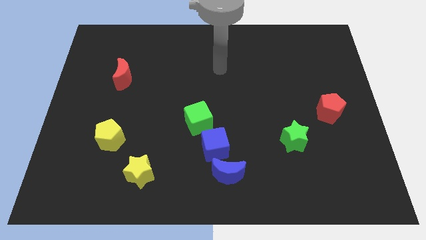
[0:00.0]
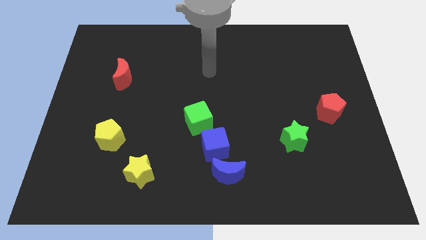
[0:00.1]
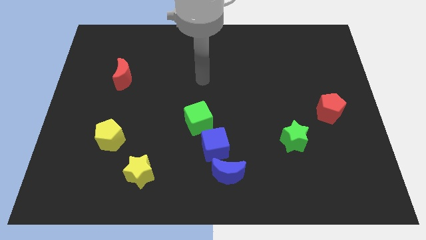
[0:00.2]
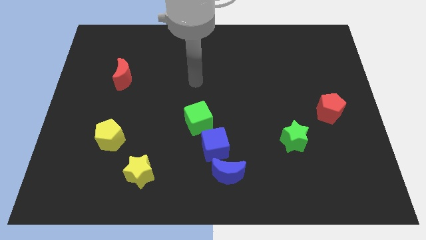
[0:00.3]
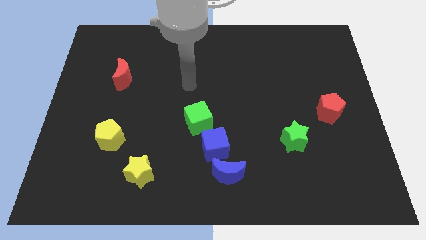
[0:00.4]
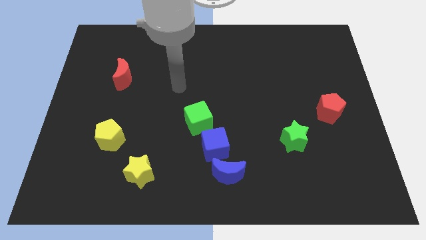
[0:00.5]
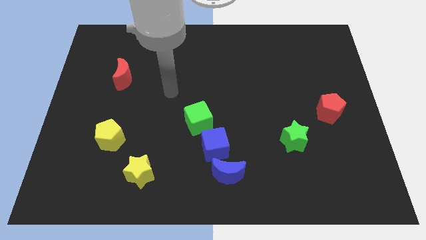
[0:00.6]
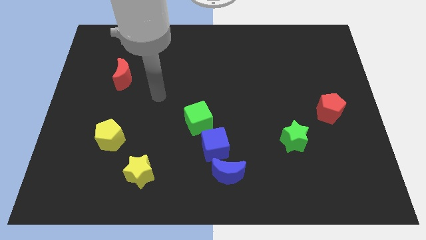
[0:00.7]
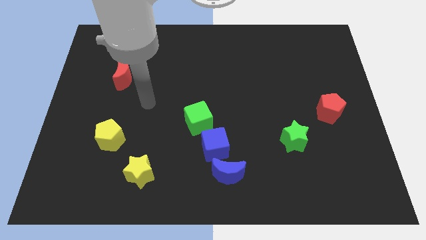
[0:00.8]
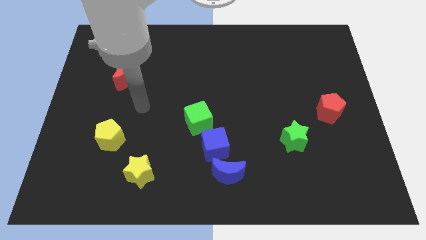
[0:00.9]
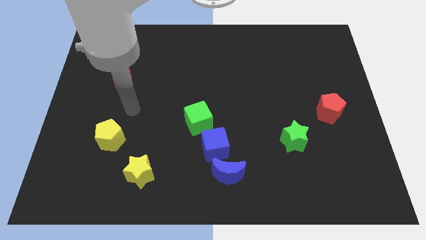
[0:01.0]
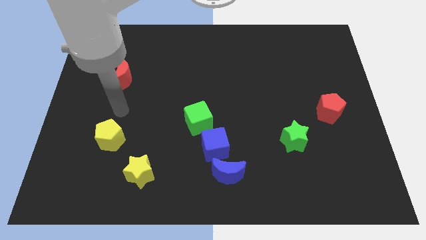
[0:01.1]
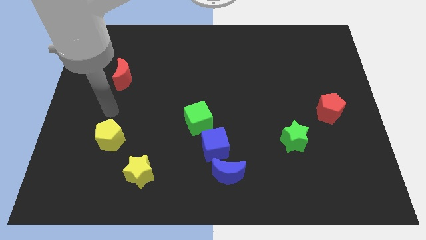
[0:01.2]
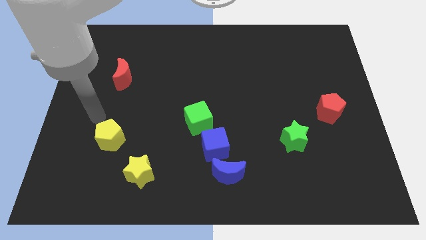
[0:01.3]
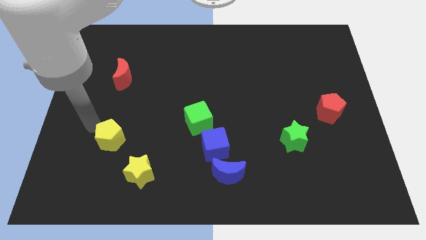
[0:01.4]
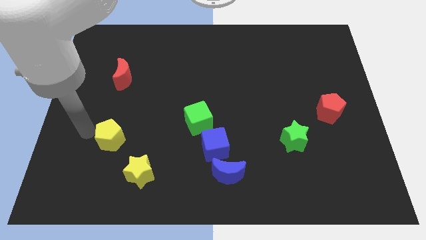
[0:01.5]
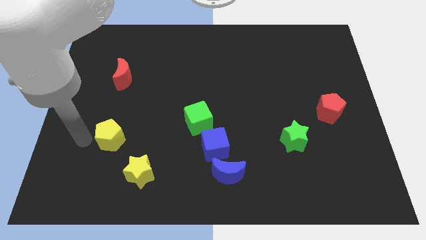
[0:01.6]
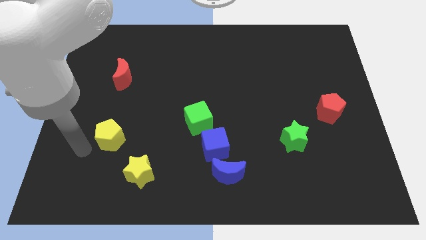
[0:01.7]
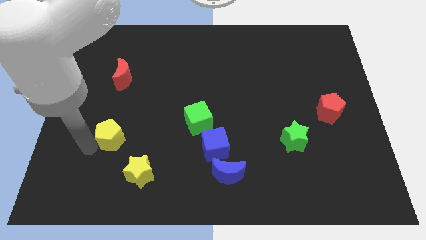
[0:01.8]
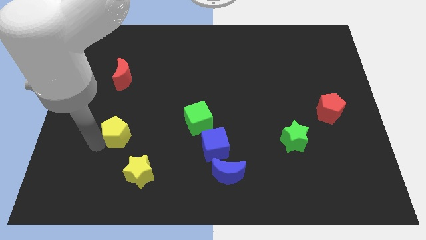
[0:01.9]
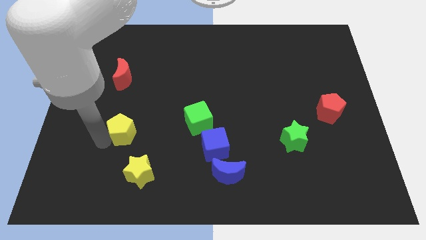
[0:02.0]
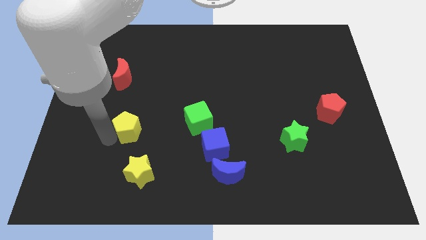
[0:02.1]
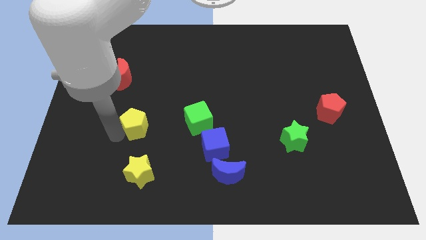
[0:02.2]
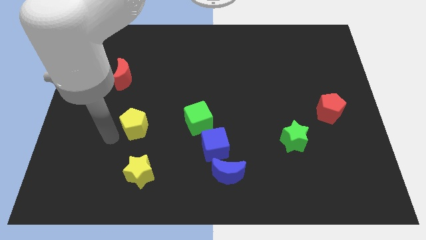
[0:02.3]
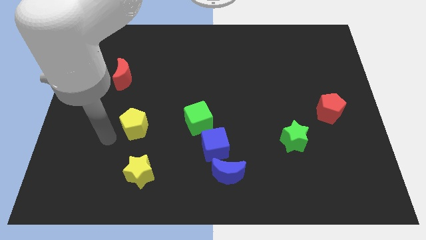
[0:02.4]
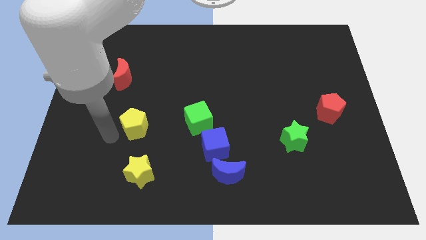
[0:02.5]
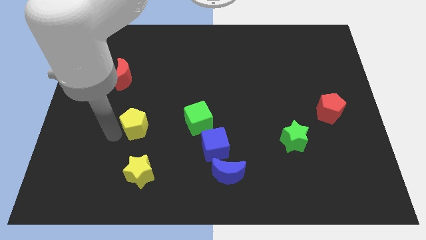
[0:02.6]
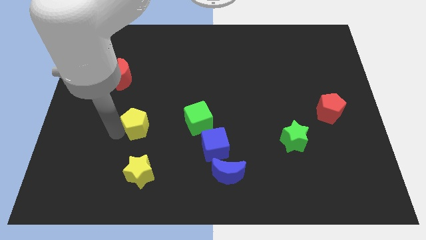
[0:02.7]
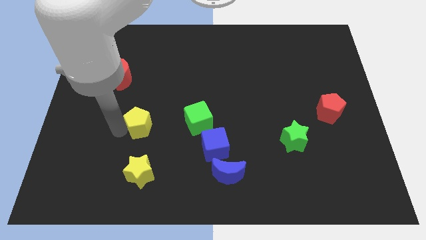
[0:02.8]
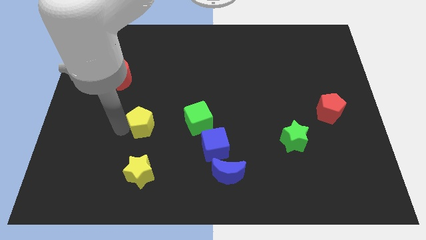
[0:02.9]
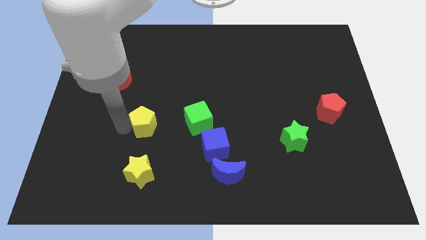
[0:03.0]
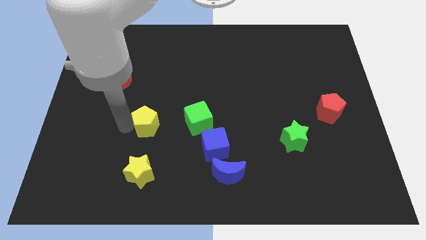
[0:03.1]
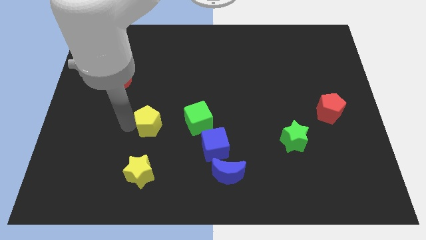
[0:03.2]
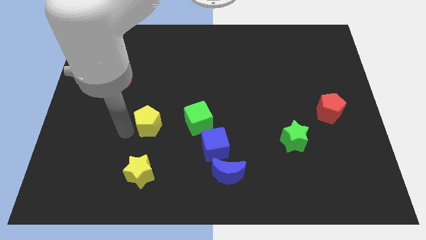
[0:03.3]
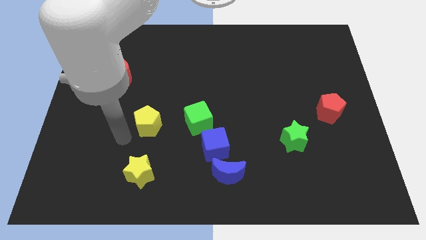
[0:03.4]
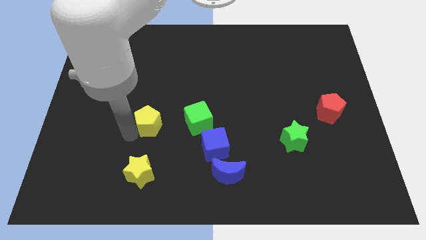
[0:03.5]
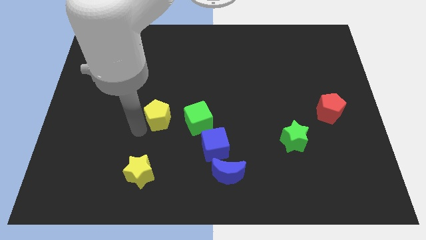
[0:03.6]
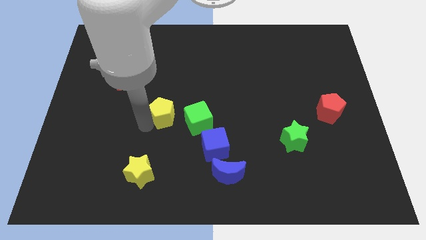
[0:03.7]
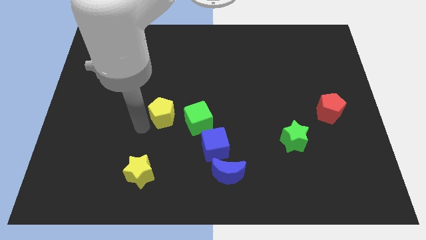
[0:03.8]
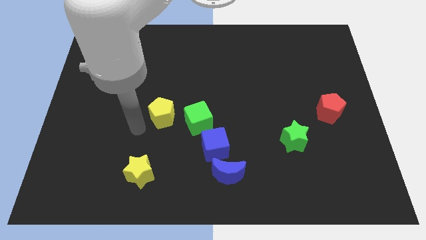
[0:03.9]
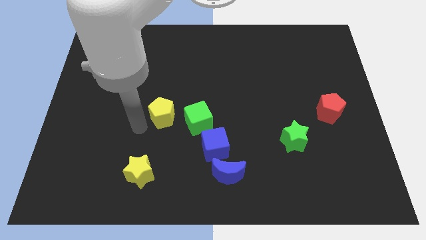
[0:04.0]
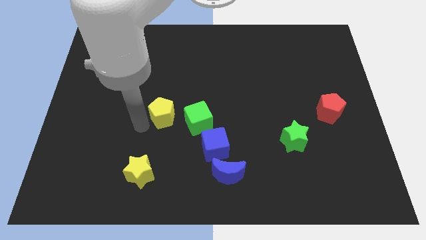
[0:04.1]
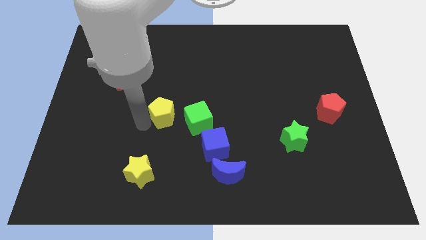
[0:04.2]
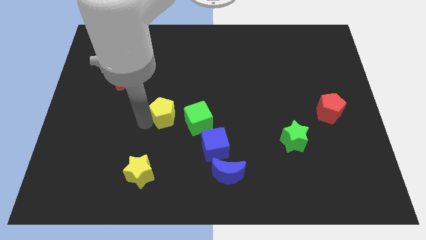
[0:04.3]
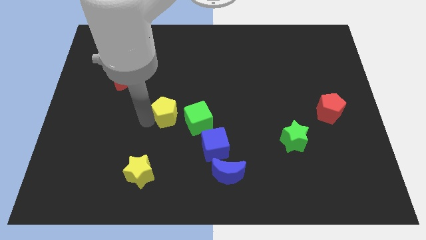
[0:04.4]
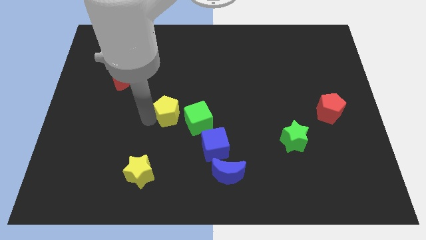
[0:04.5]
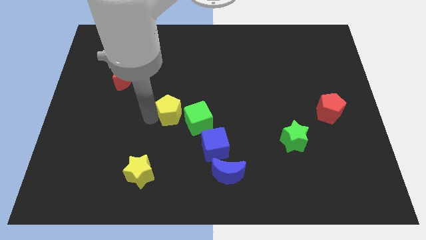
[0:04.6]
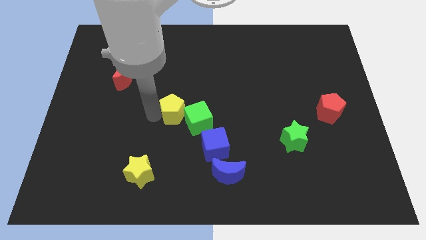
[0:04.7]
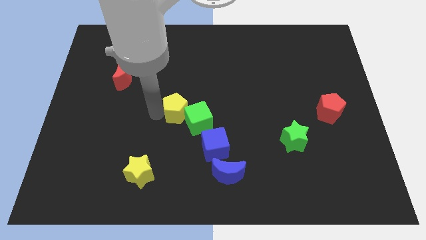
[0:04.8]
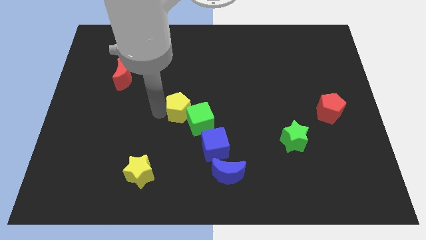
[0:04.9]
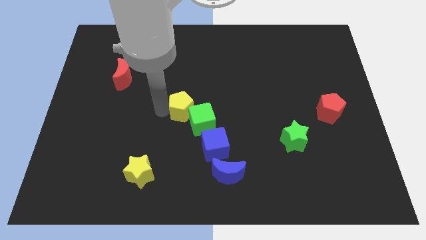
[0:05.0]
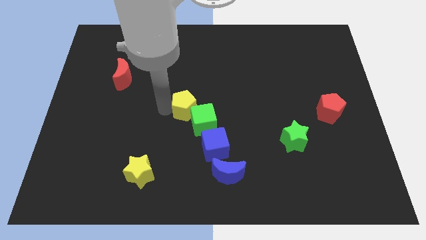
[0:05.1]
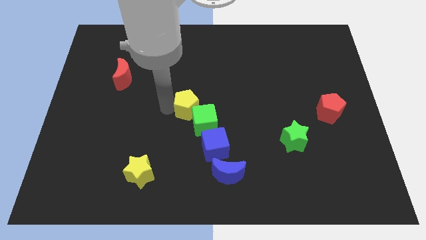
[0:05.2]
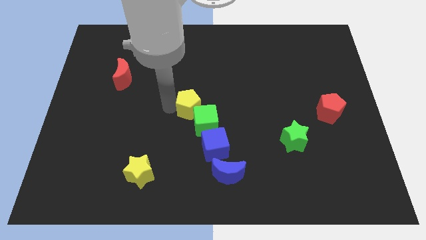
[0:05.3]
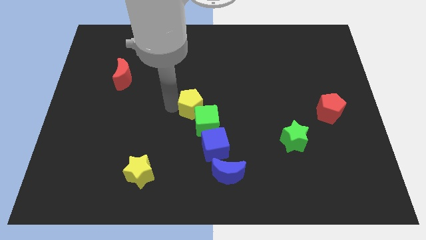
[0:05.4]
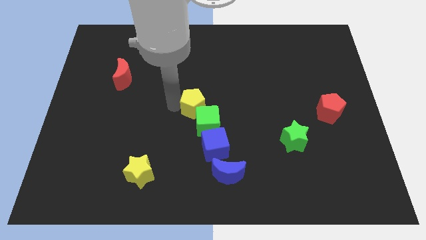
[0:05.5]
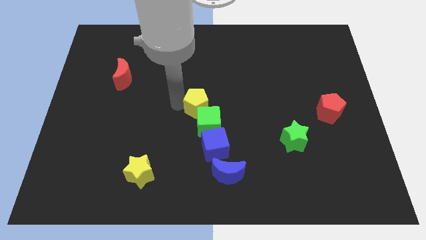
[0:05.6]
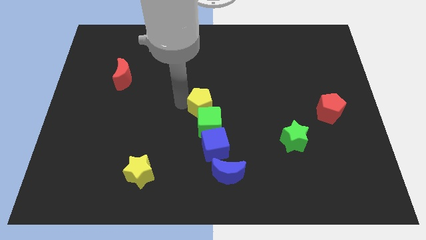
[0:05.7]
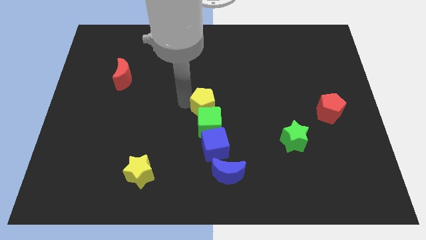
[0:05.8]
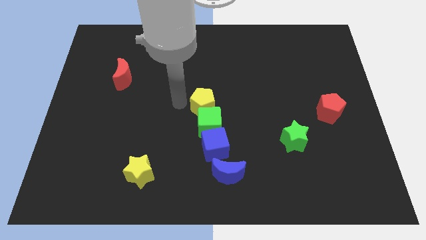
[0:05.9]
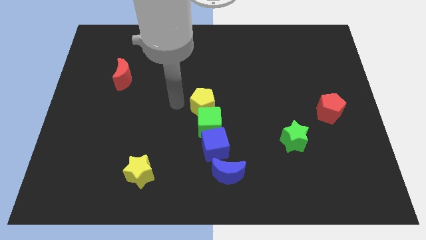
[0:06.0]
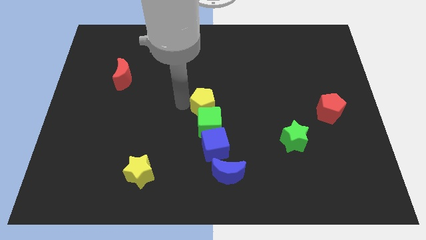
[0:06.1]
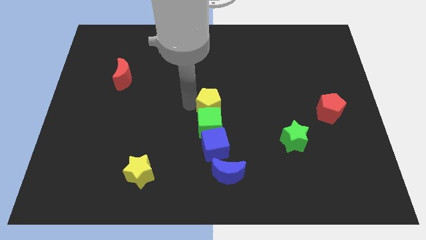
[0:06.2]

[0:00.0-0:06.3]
push the yellow pentagon diagonally up and to the right of the green cube

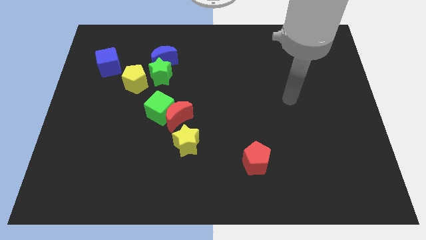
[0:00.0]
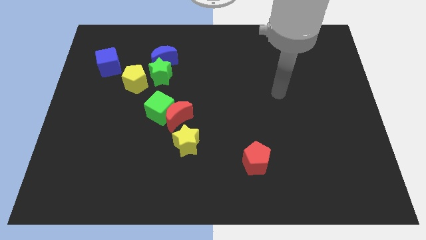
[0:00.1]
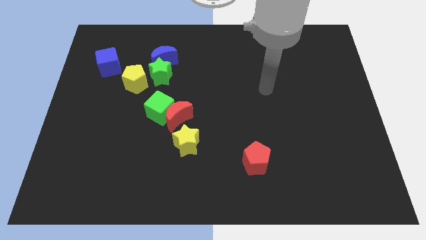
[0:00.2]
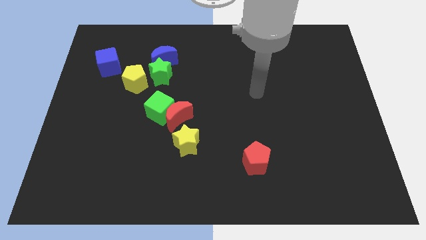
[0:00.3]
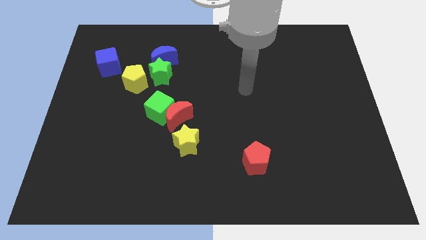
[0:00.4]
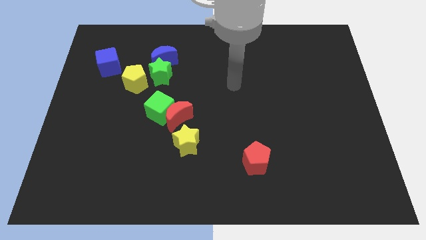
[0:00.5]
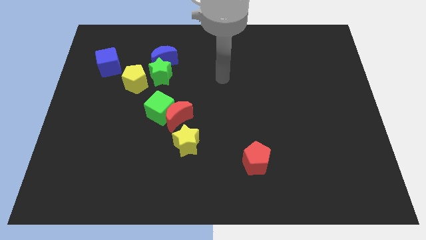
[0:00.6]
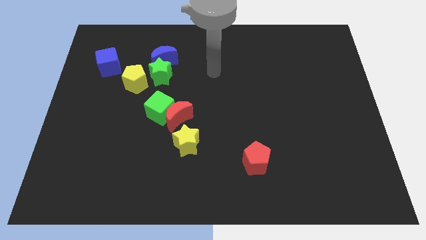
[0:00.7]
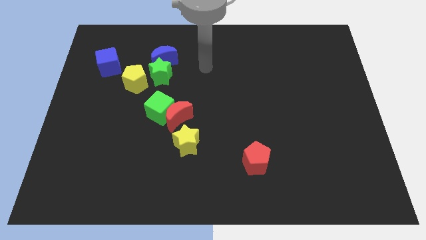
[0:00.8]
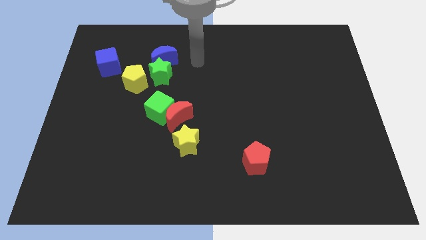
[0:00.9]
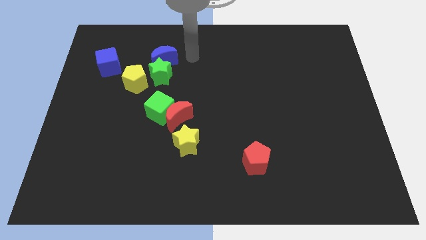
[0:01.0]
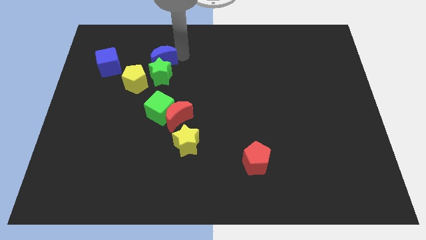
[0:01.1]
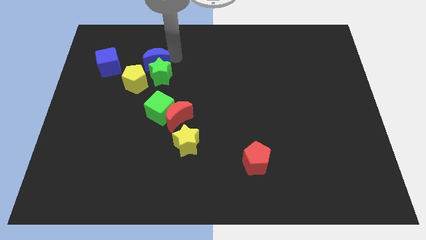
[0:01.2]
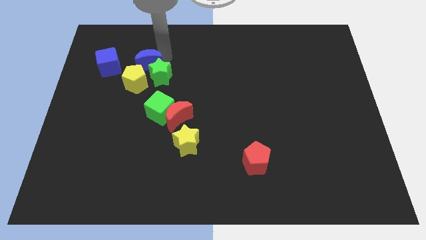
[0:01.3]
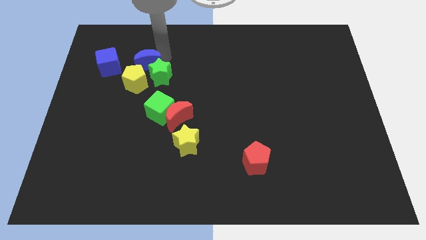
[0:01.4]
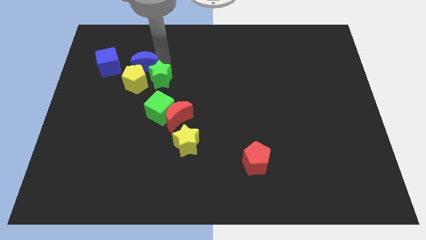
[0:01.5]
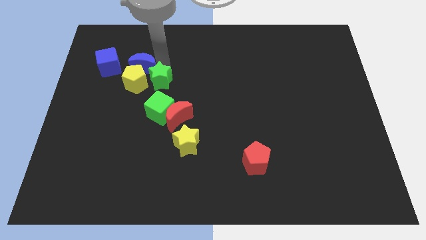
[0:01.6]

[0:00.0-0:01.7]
move the green star diagonally down and to the right of the yellow pentagon
